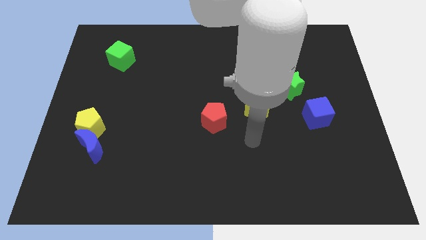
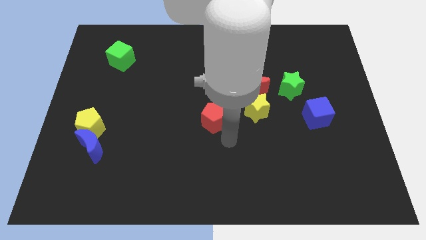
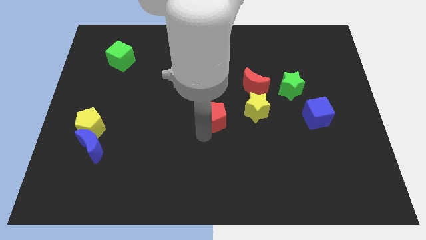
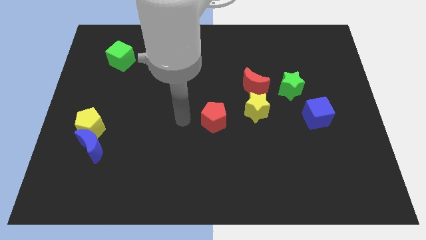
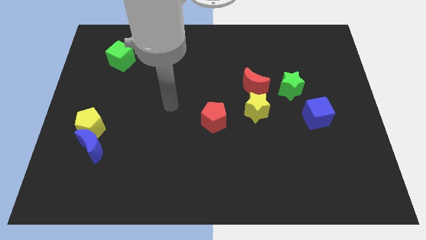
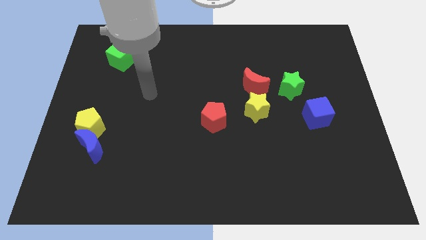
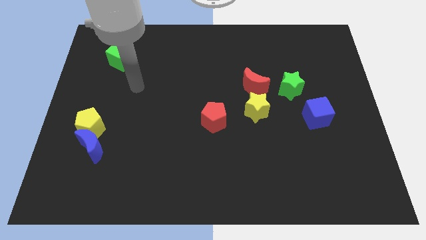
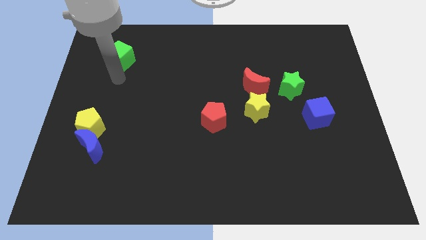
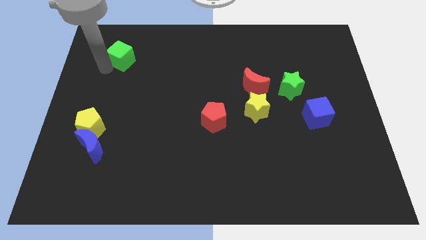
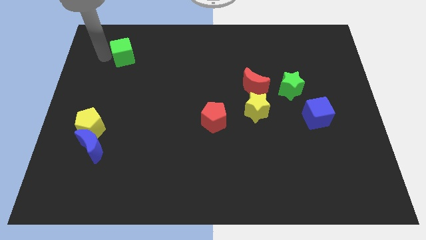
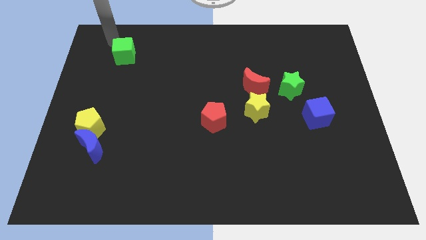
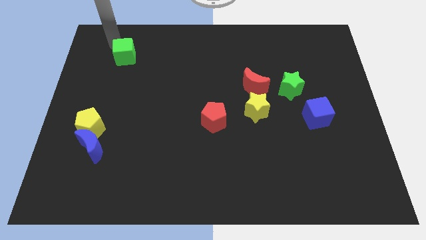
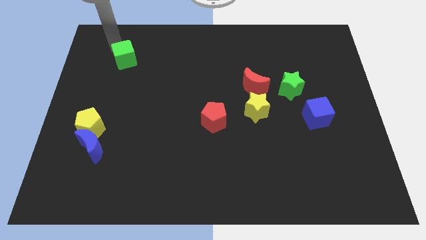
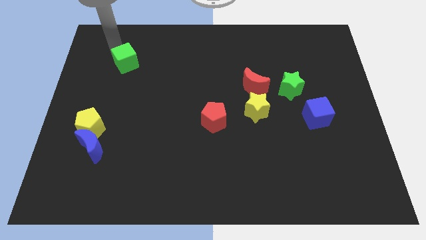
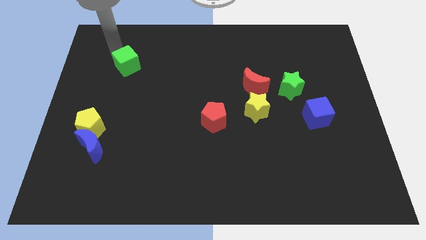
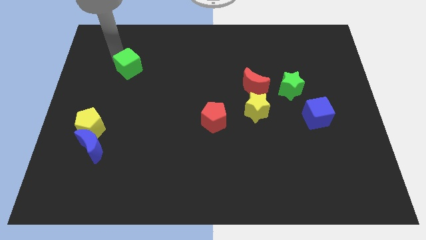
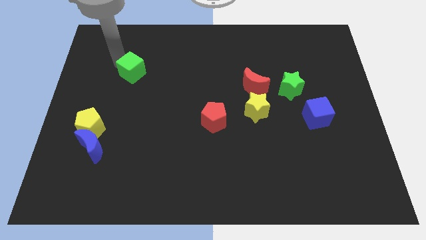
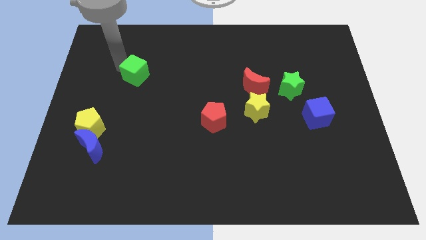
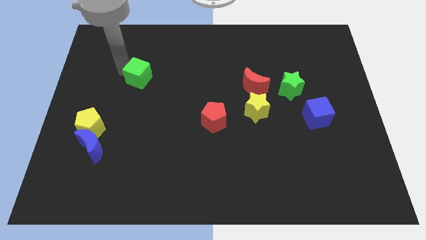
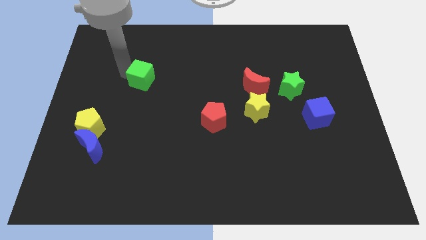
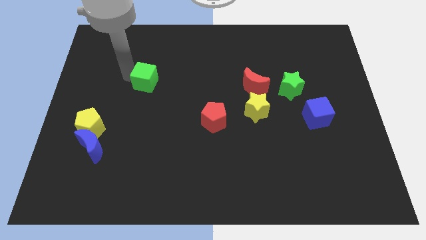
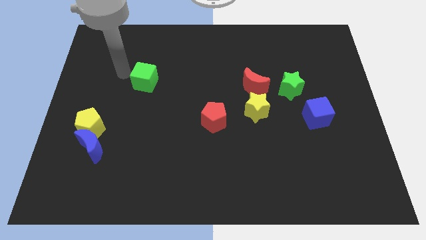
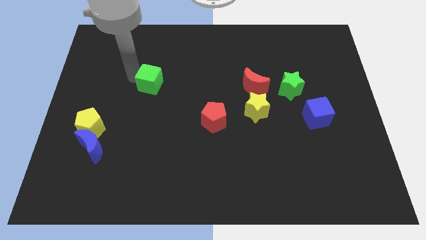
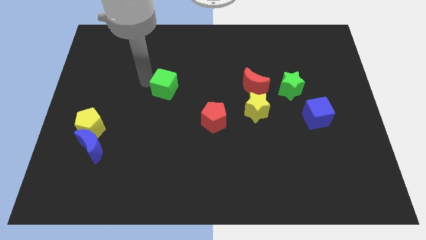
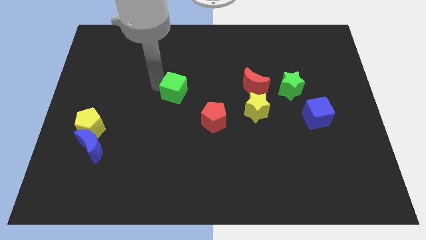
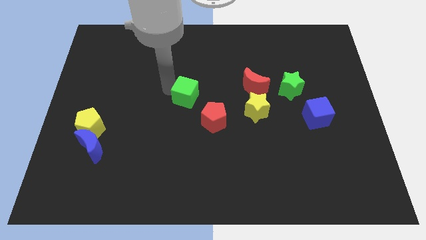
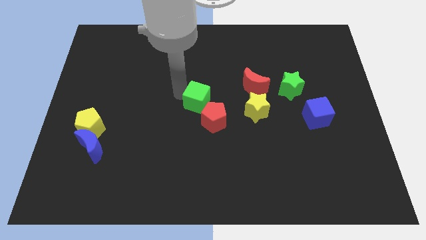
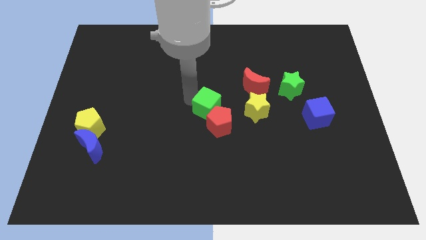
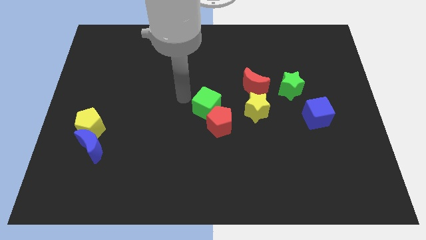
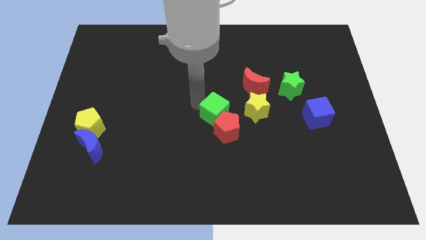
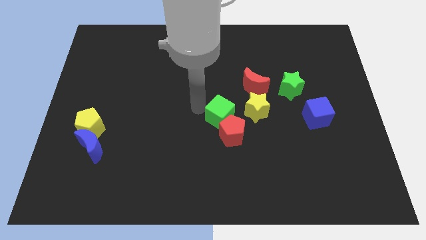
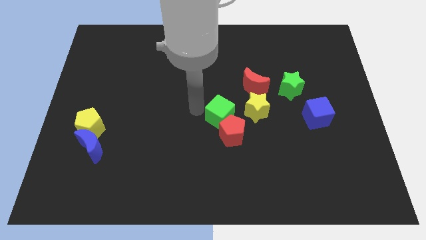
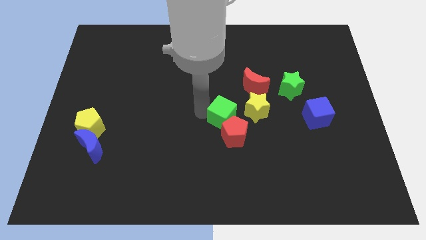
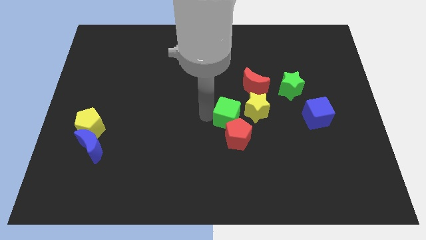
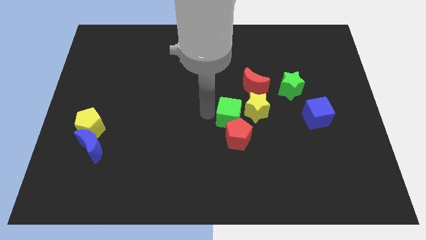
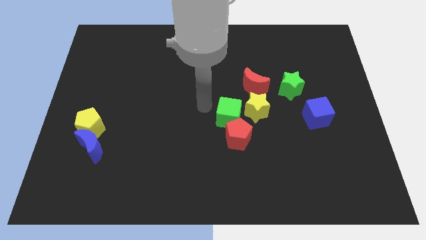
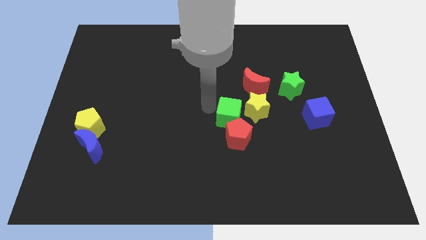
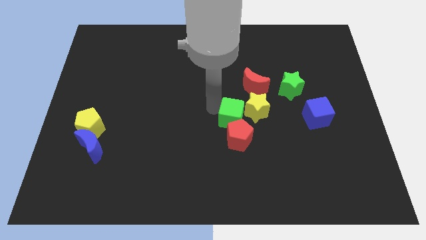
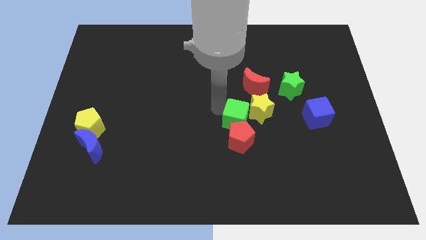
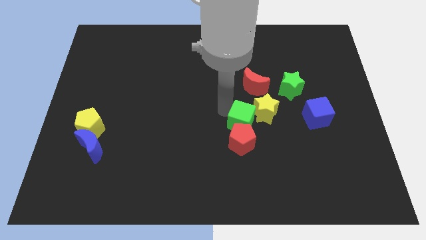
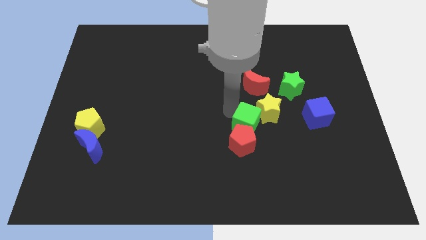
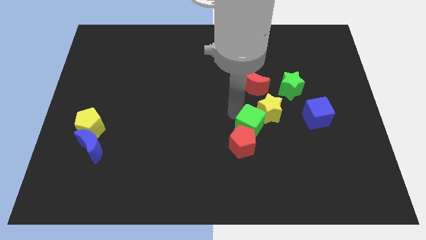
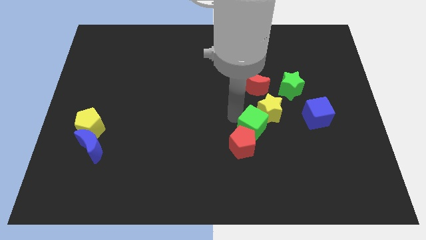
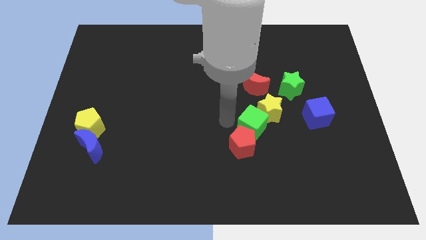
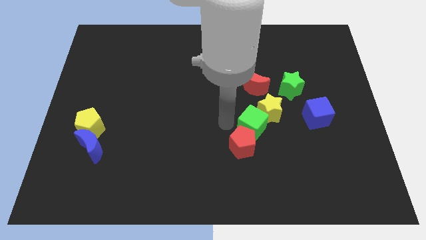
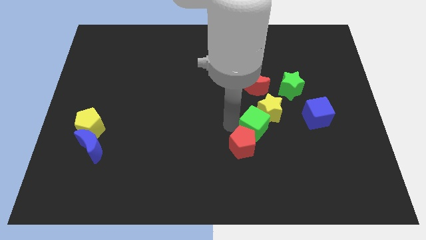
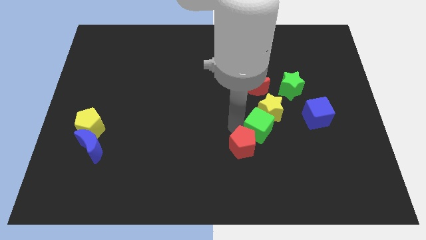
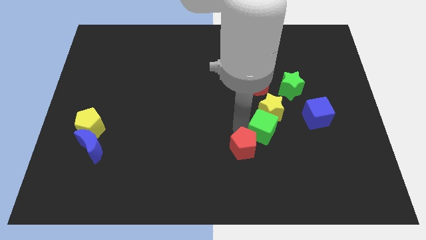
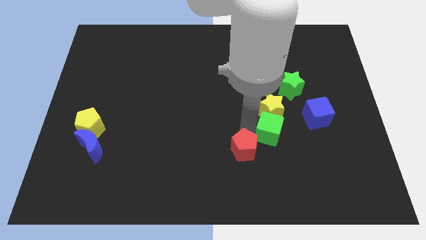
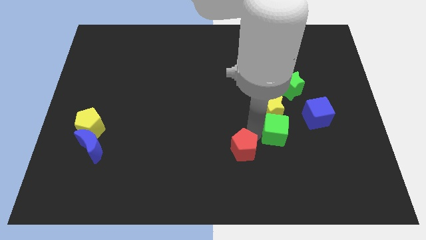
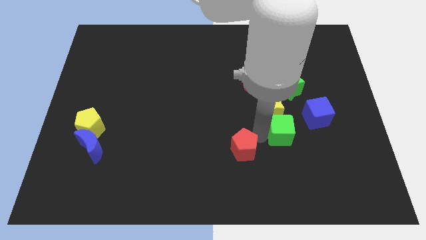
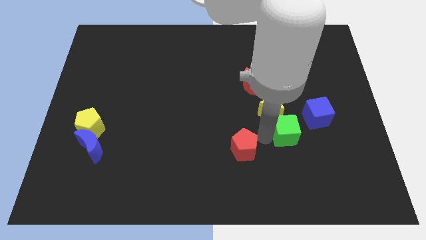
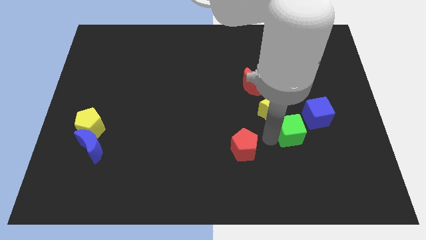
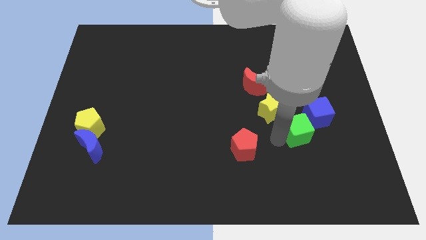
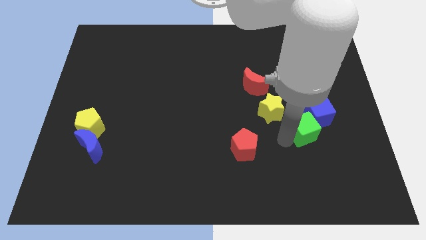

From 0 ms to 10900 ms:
move the green cube next to the blue cube

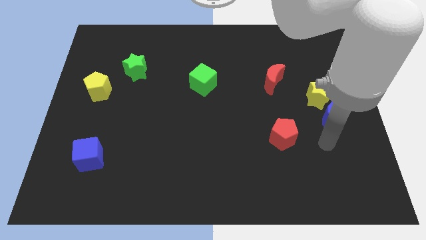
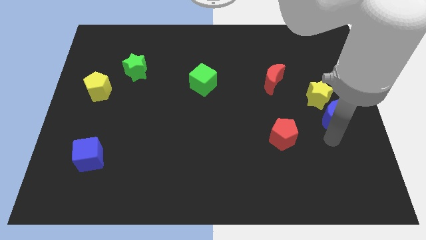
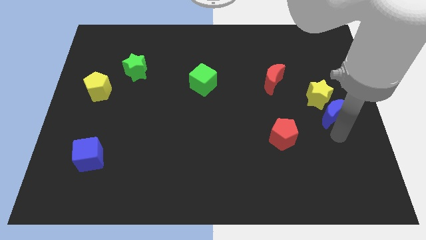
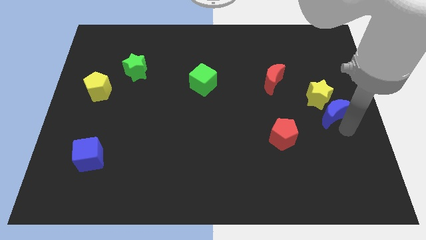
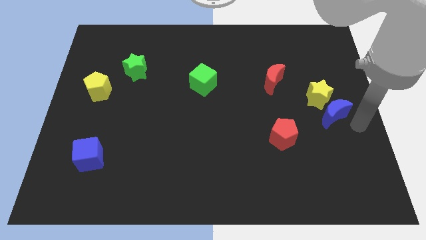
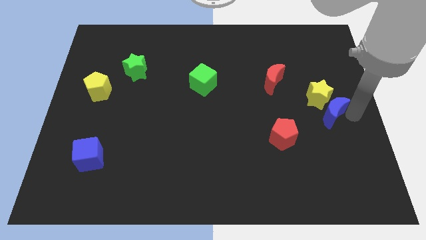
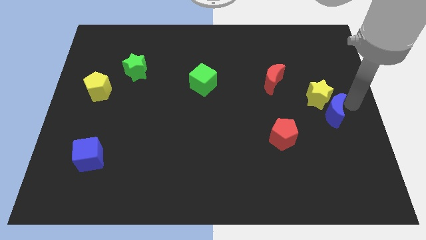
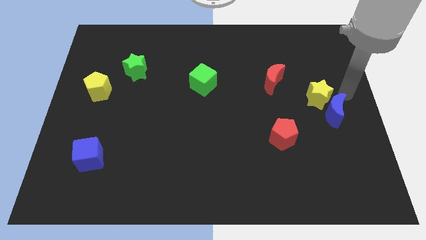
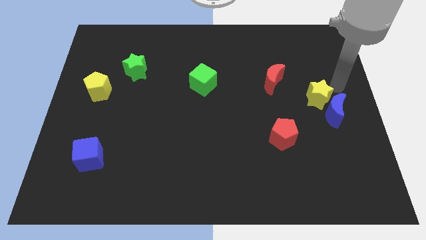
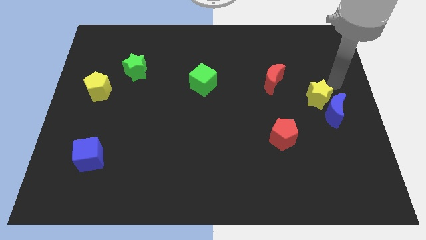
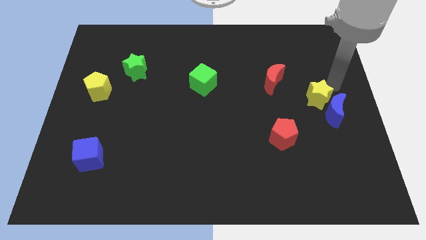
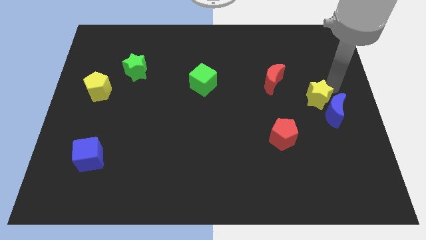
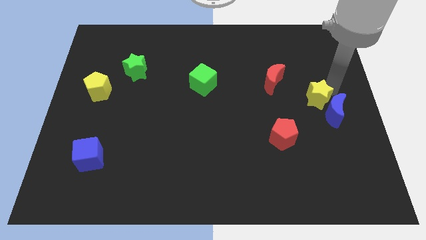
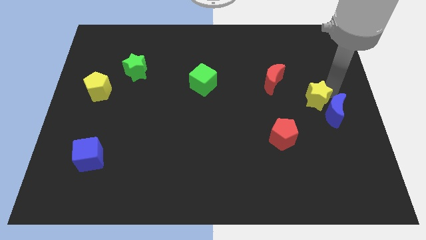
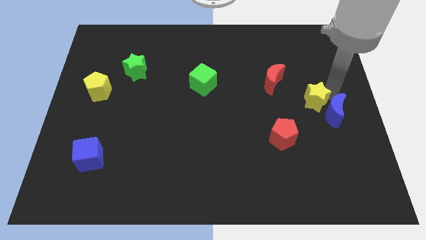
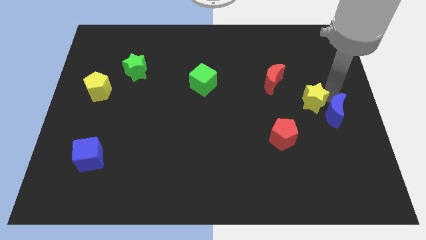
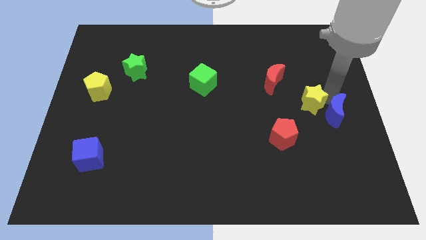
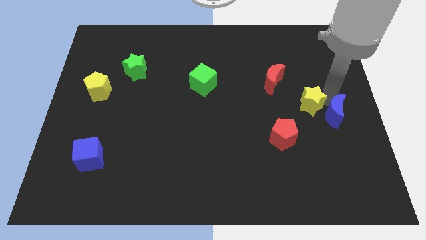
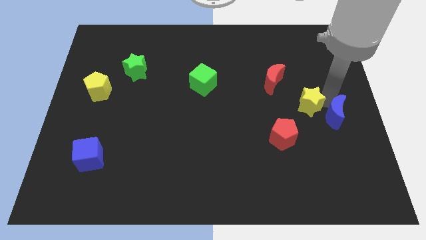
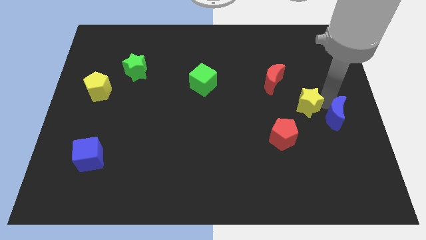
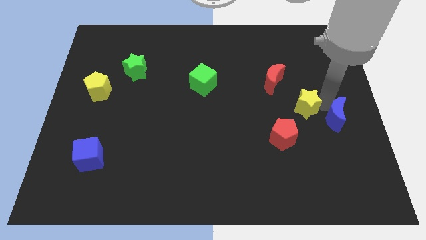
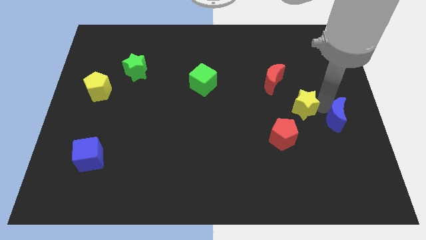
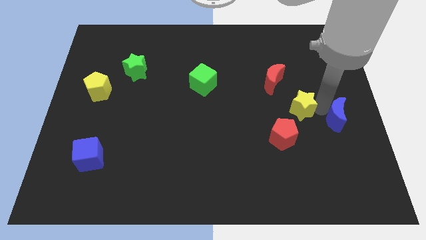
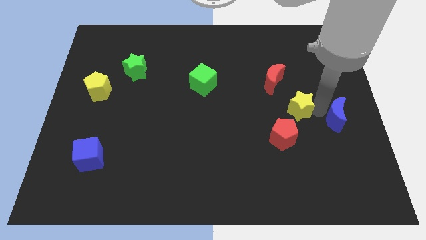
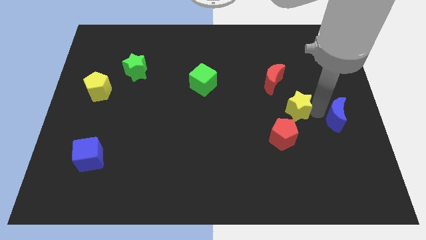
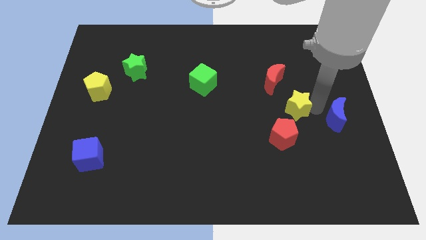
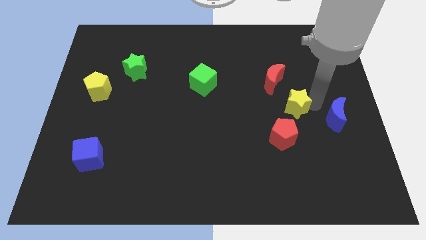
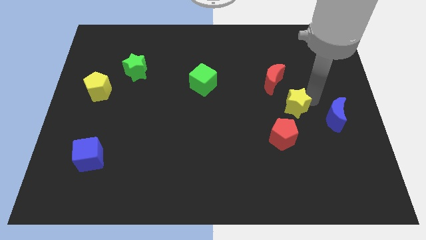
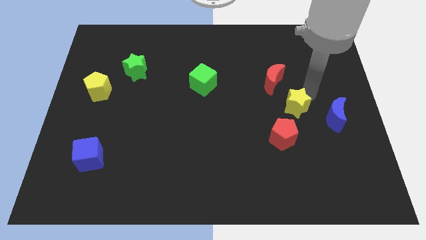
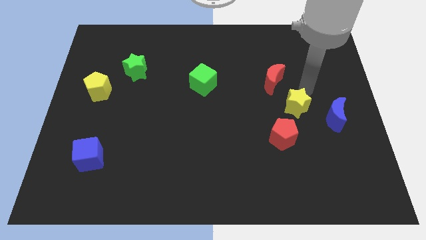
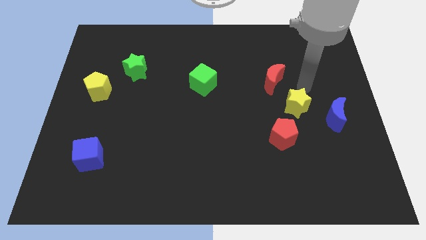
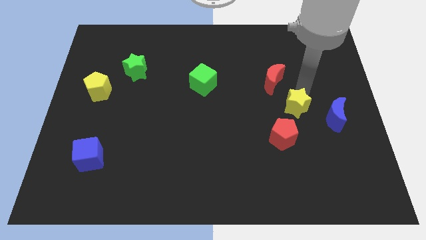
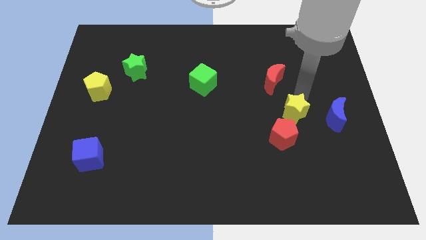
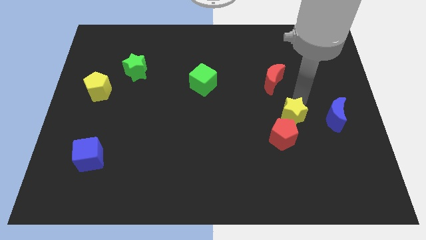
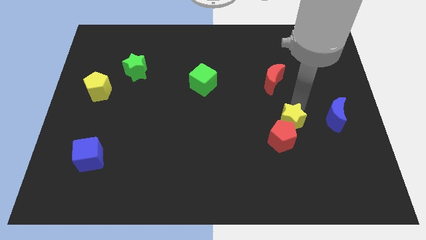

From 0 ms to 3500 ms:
move the yellow star close to the red pentagon
